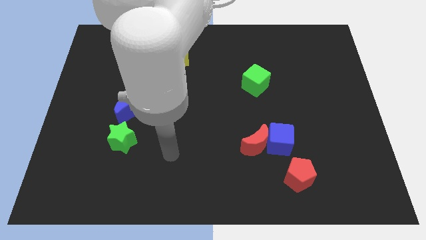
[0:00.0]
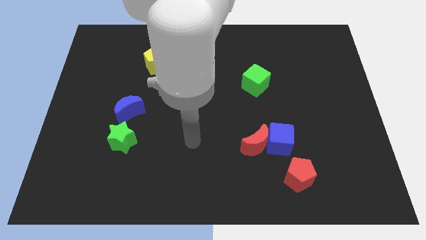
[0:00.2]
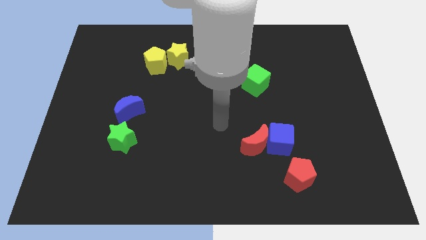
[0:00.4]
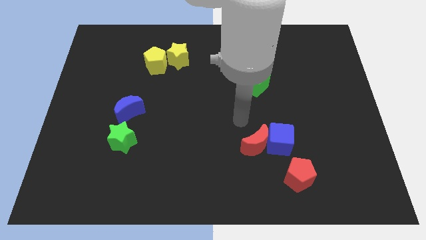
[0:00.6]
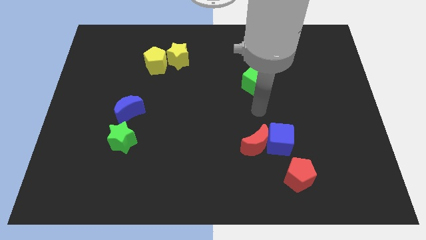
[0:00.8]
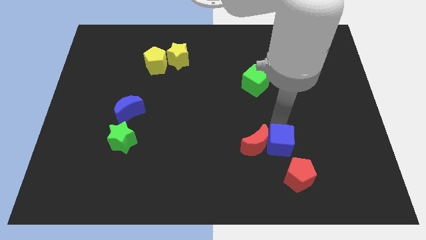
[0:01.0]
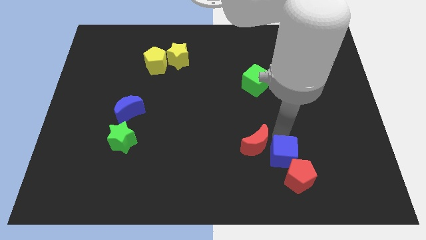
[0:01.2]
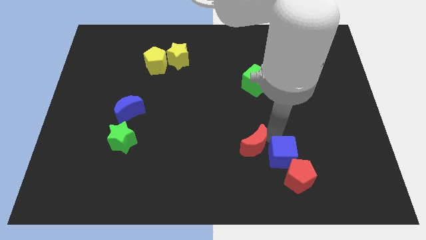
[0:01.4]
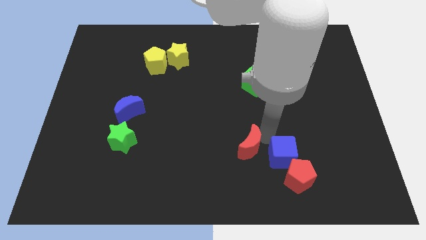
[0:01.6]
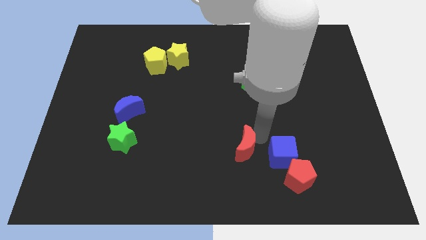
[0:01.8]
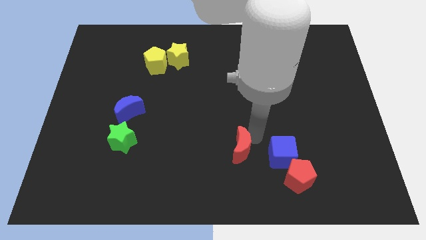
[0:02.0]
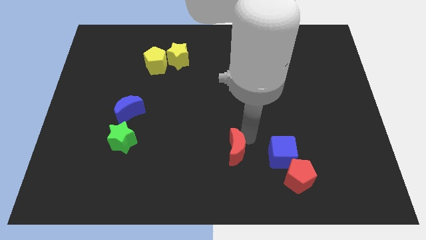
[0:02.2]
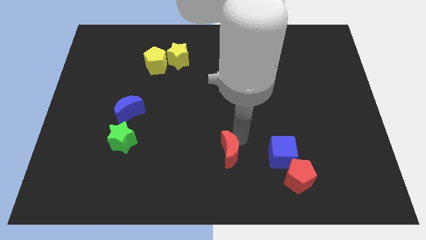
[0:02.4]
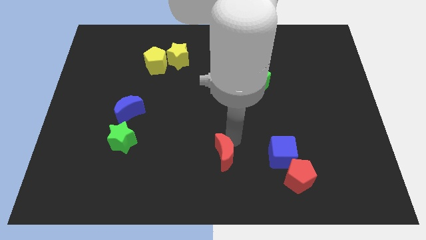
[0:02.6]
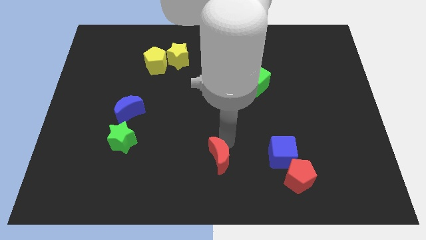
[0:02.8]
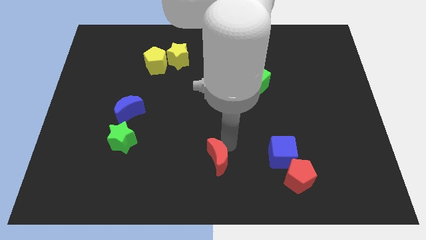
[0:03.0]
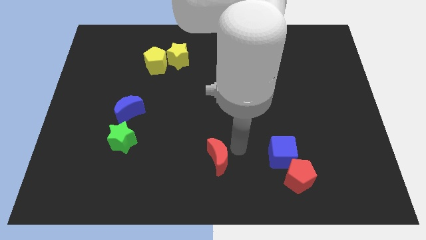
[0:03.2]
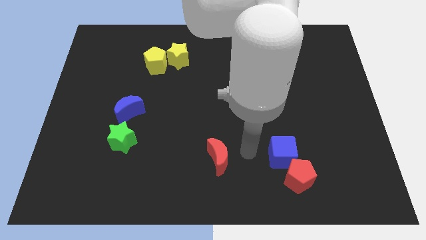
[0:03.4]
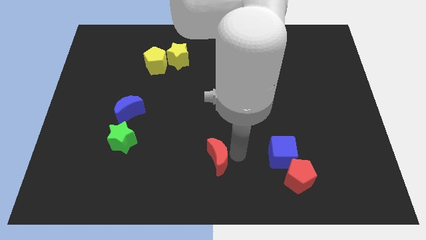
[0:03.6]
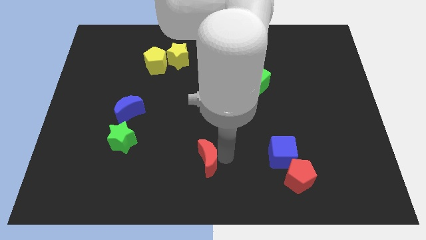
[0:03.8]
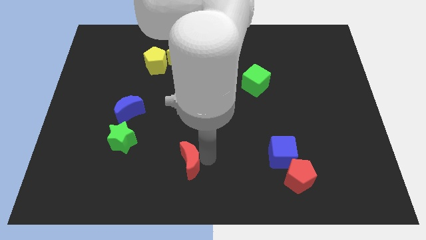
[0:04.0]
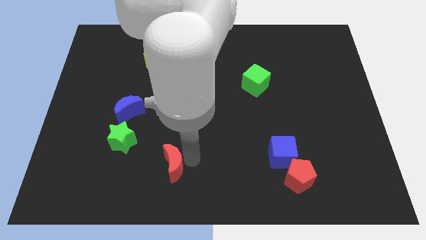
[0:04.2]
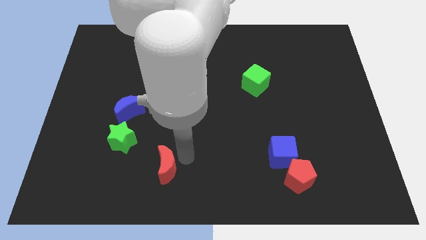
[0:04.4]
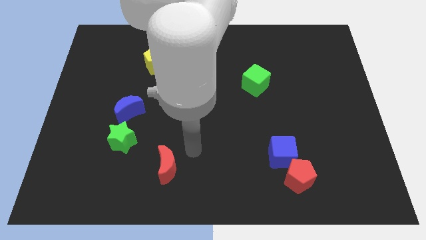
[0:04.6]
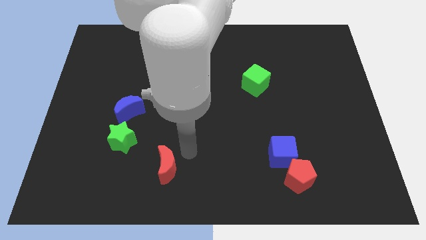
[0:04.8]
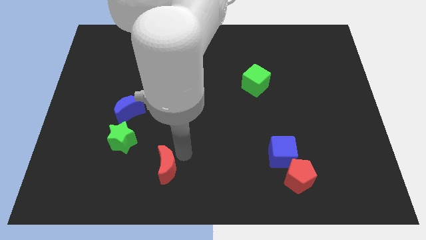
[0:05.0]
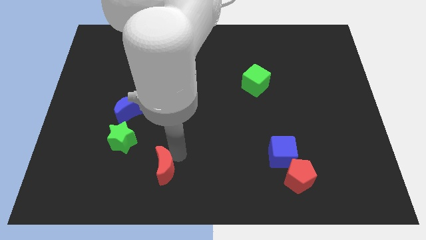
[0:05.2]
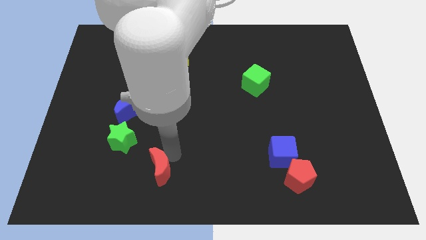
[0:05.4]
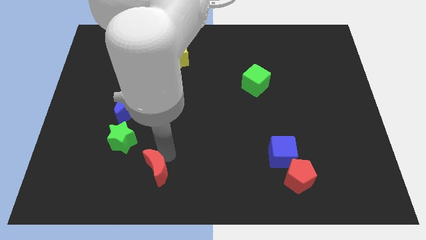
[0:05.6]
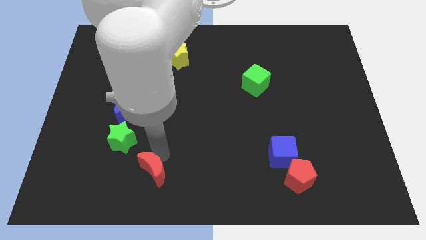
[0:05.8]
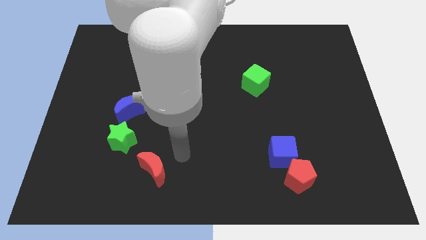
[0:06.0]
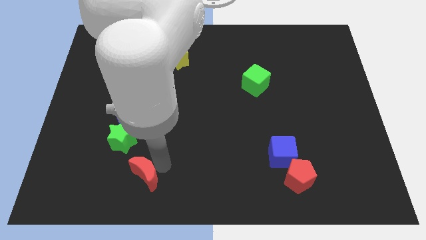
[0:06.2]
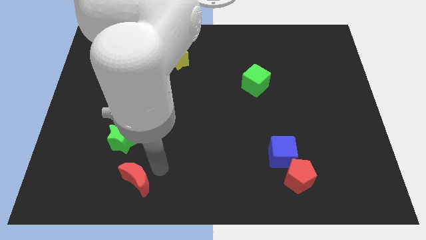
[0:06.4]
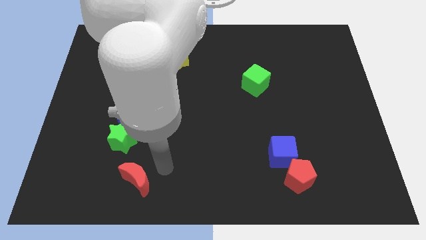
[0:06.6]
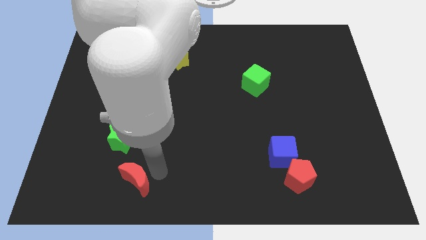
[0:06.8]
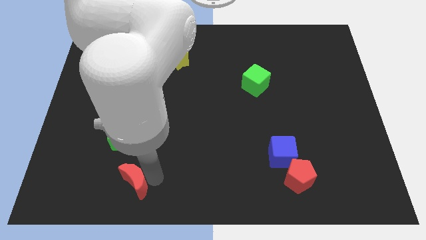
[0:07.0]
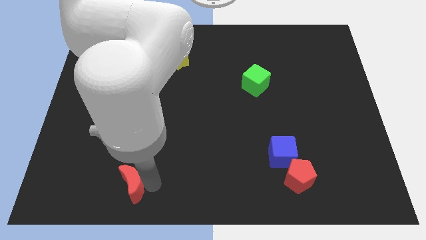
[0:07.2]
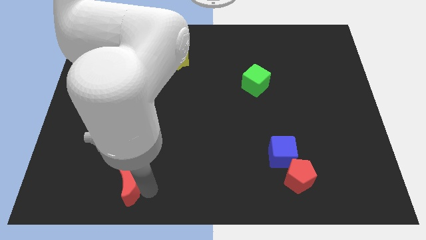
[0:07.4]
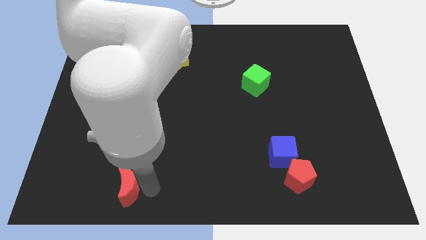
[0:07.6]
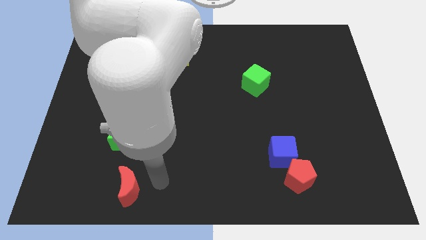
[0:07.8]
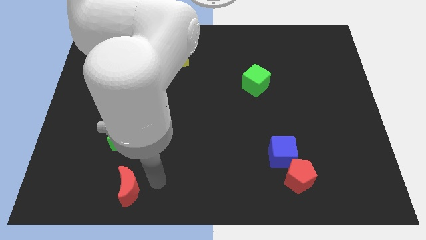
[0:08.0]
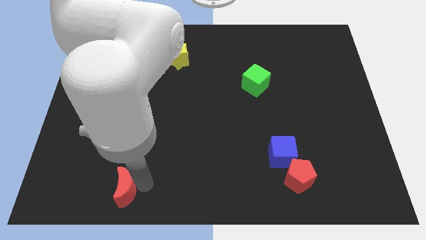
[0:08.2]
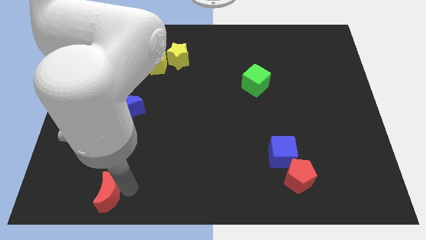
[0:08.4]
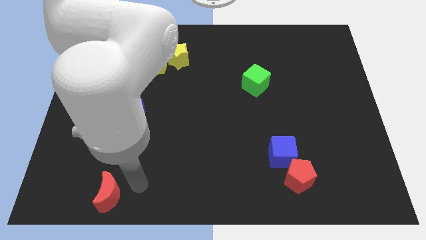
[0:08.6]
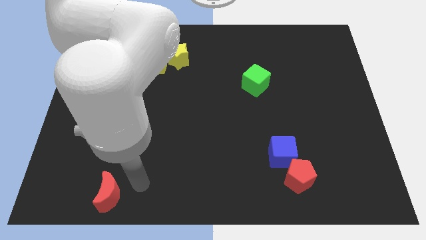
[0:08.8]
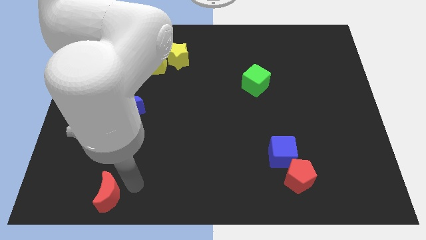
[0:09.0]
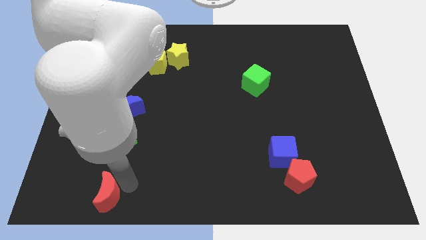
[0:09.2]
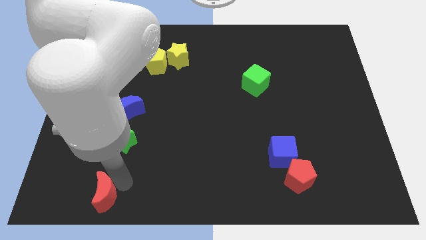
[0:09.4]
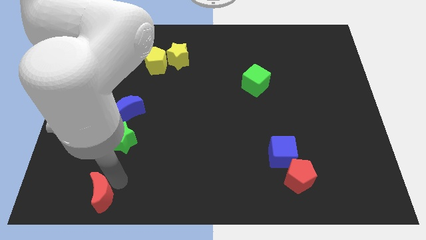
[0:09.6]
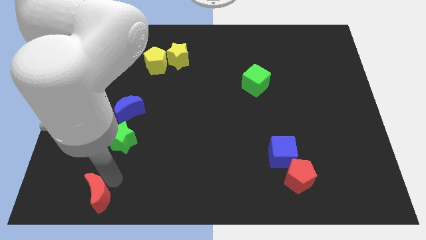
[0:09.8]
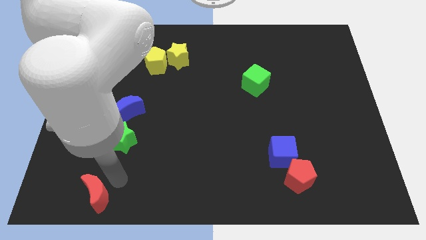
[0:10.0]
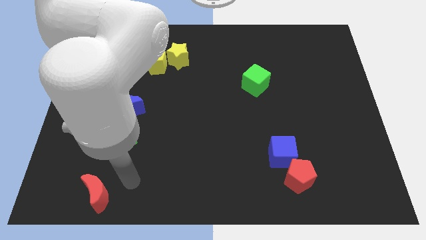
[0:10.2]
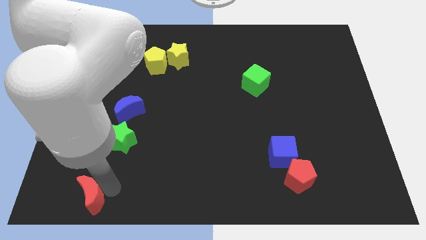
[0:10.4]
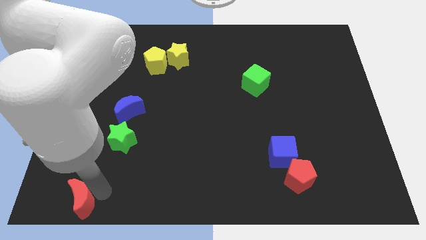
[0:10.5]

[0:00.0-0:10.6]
push the red moon to the lower left corner

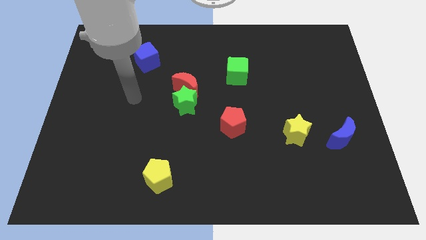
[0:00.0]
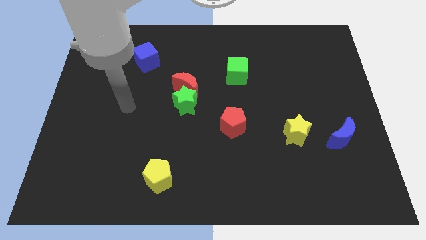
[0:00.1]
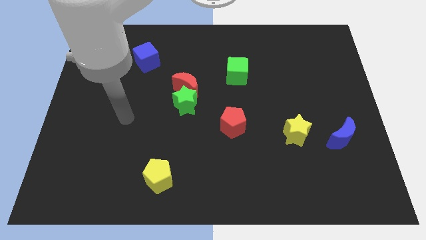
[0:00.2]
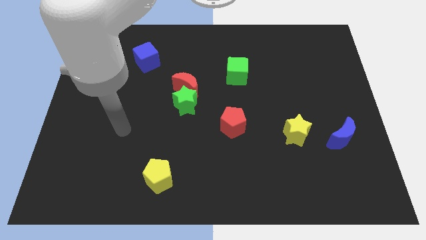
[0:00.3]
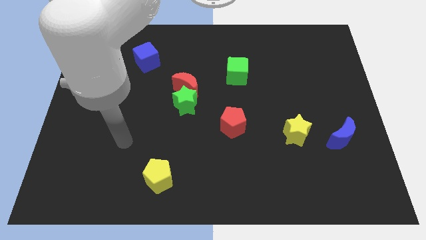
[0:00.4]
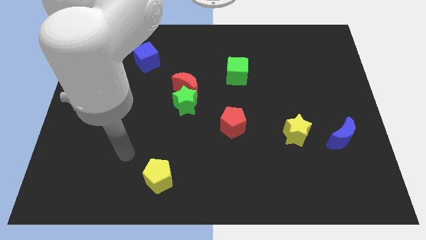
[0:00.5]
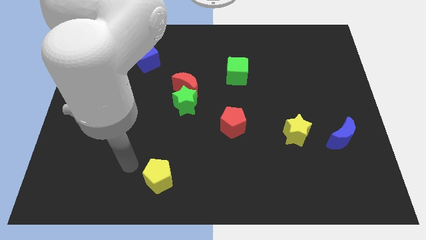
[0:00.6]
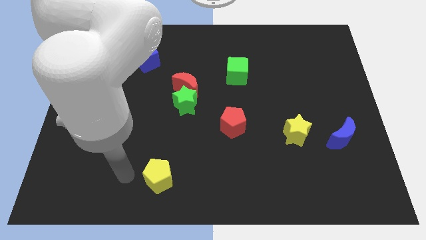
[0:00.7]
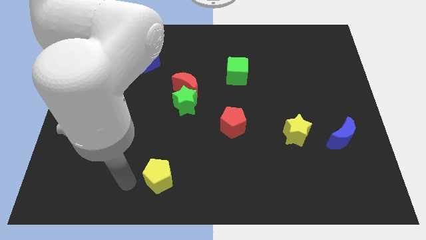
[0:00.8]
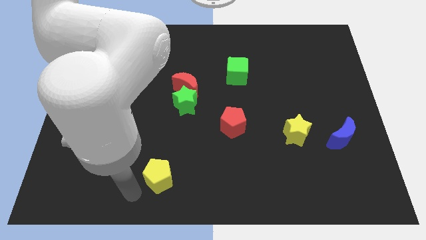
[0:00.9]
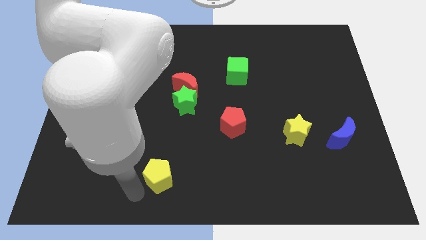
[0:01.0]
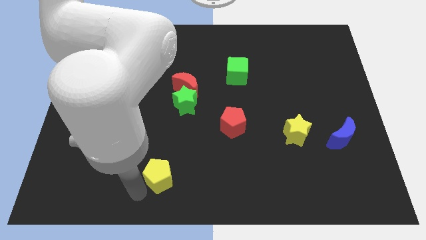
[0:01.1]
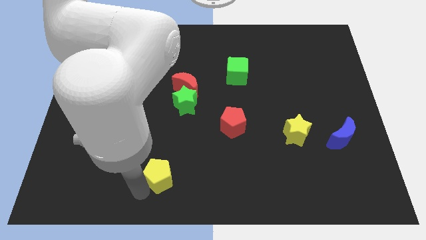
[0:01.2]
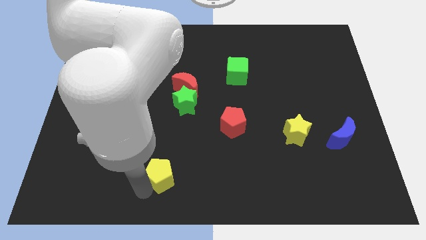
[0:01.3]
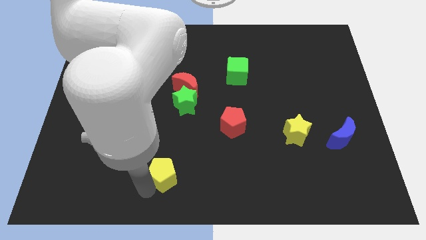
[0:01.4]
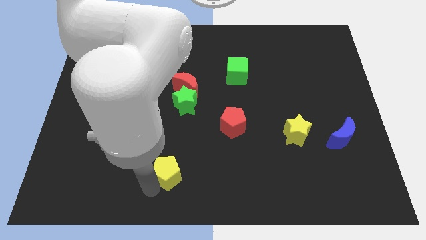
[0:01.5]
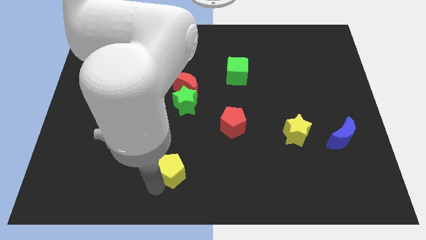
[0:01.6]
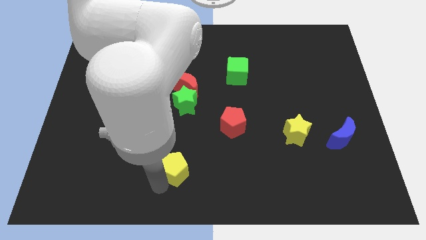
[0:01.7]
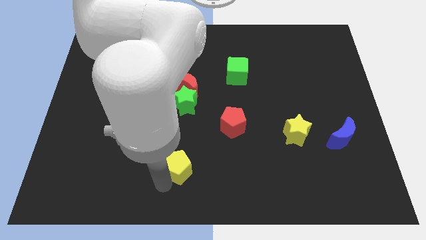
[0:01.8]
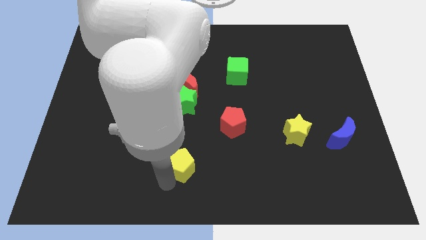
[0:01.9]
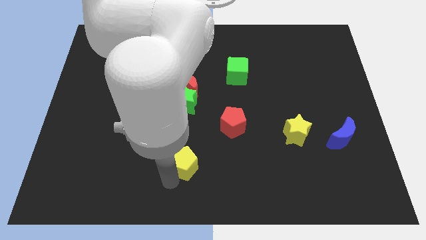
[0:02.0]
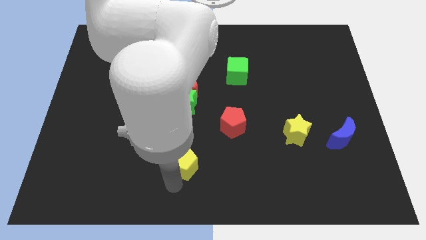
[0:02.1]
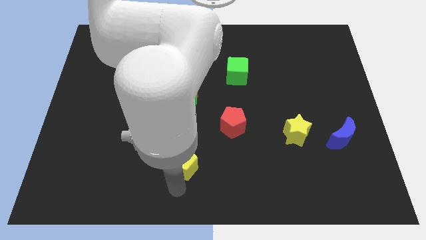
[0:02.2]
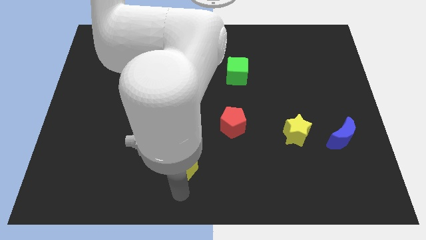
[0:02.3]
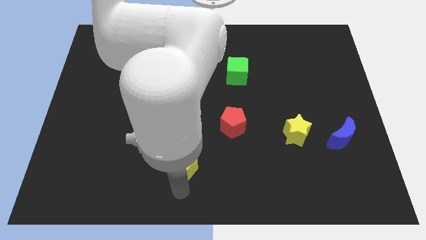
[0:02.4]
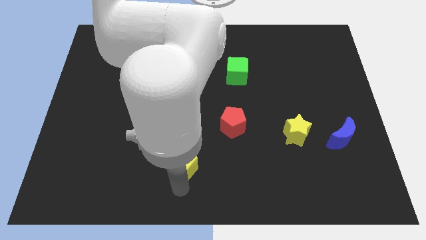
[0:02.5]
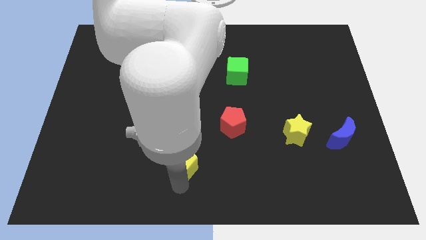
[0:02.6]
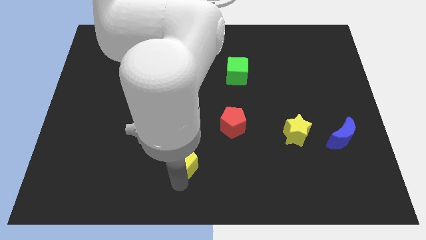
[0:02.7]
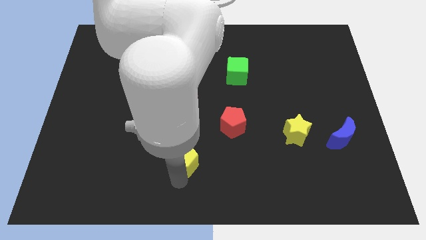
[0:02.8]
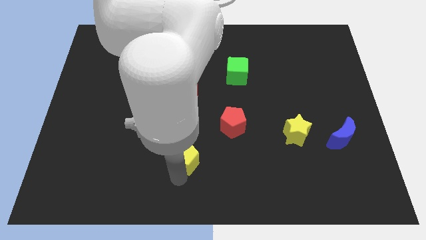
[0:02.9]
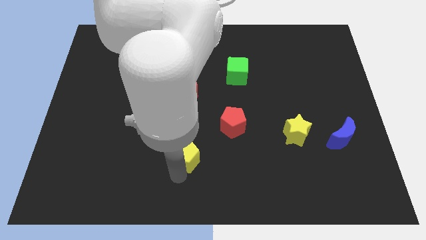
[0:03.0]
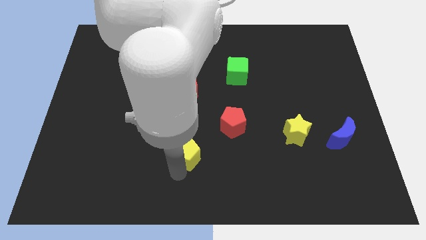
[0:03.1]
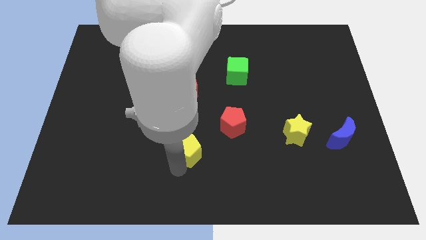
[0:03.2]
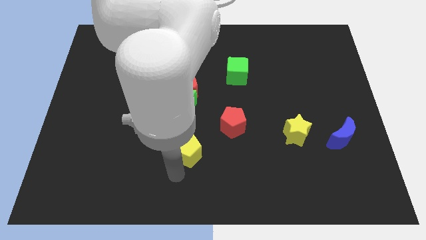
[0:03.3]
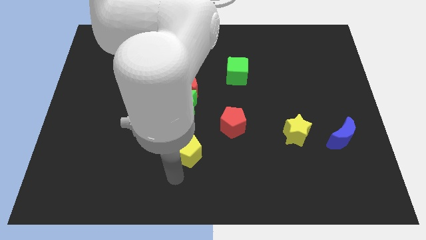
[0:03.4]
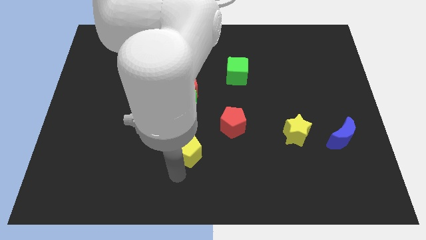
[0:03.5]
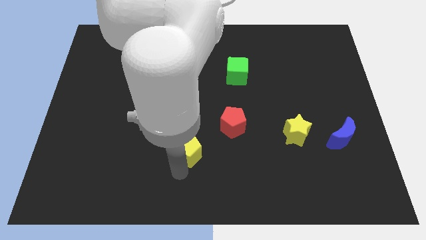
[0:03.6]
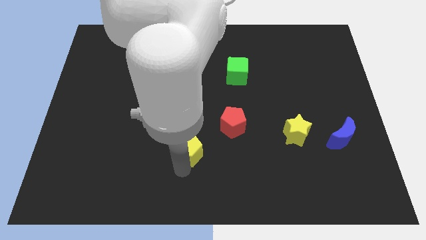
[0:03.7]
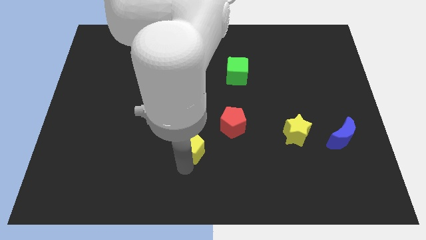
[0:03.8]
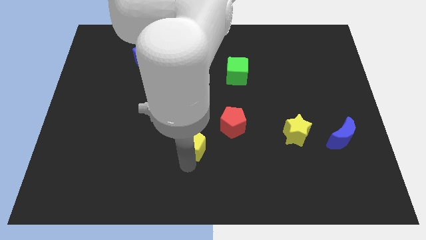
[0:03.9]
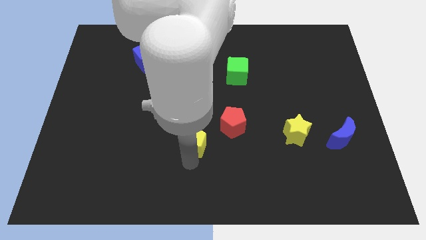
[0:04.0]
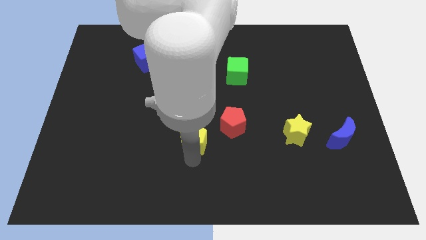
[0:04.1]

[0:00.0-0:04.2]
move the yellow pentagon to the center of the board
